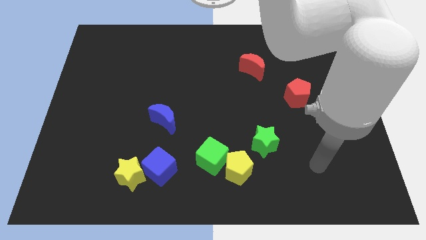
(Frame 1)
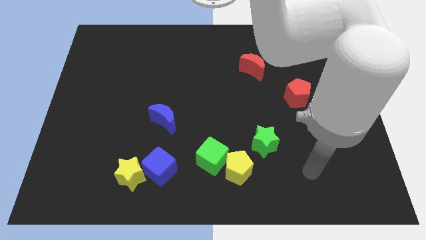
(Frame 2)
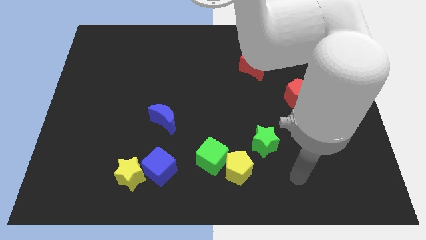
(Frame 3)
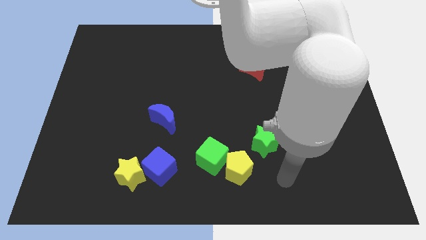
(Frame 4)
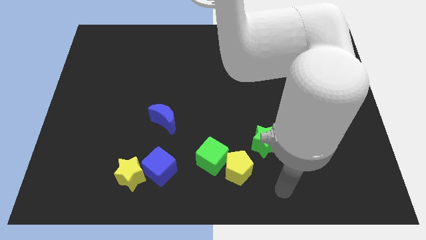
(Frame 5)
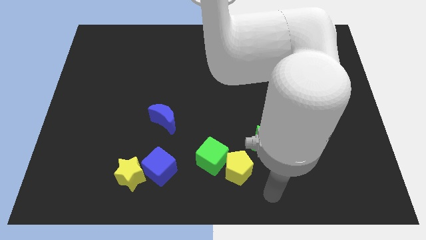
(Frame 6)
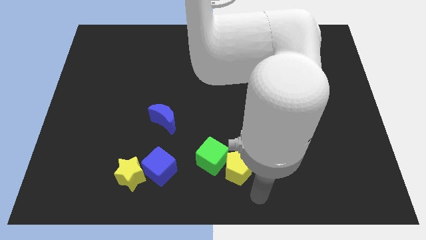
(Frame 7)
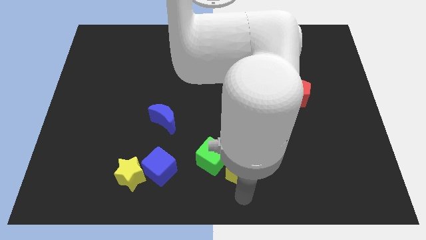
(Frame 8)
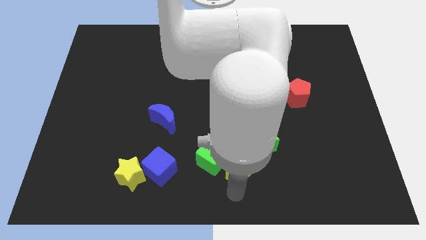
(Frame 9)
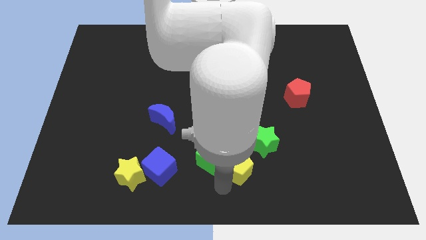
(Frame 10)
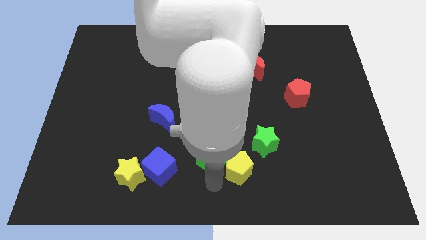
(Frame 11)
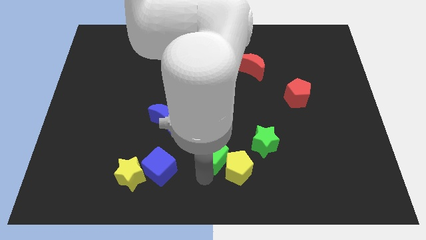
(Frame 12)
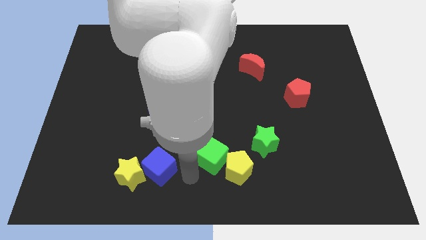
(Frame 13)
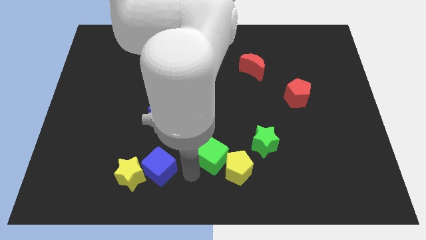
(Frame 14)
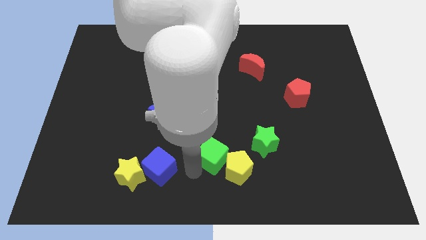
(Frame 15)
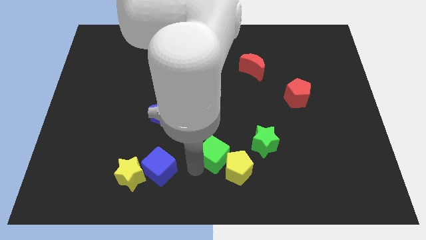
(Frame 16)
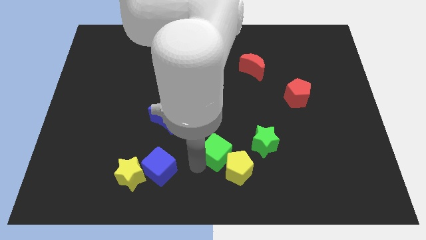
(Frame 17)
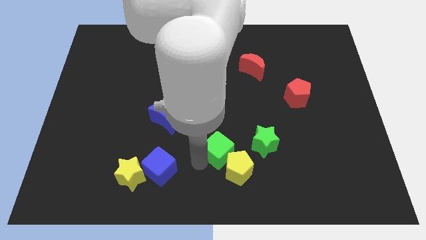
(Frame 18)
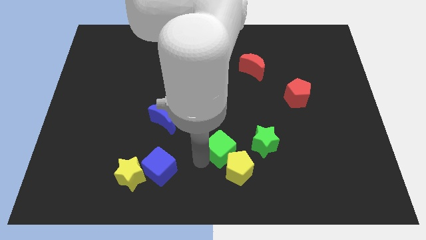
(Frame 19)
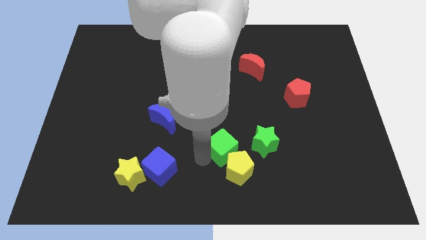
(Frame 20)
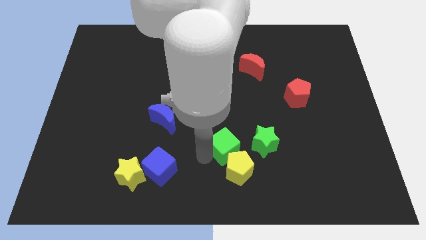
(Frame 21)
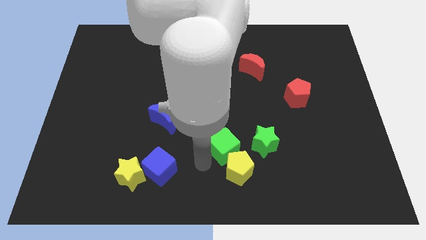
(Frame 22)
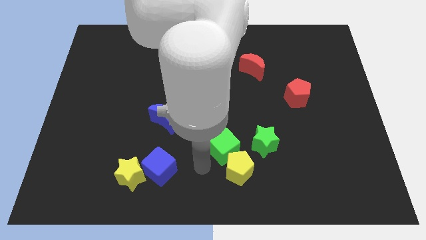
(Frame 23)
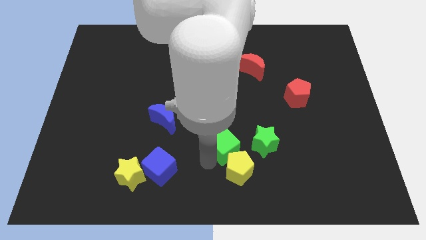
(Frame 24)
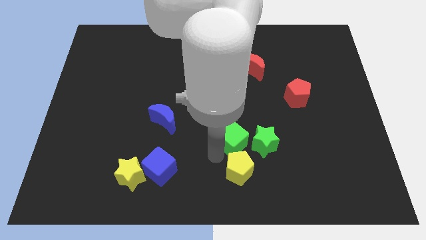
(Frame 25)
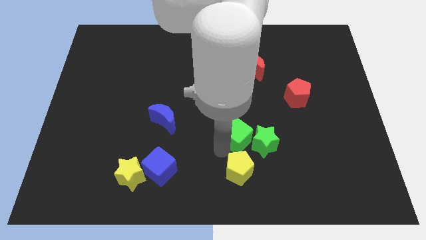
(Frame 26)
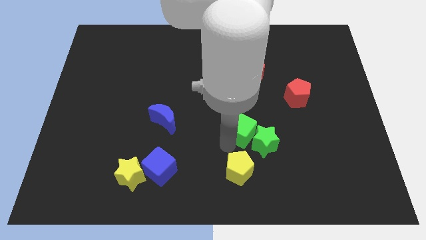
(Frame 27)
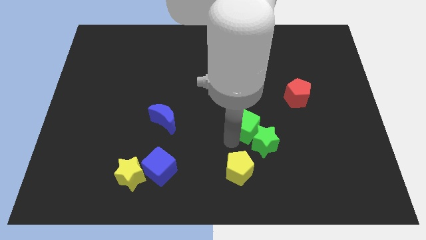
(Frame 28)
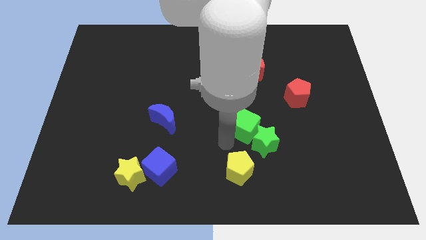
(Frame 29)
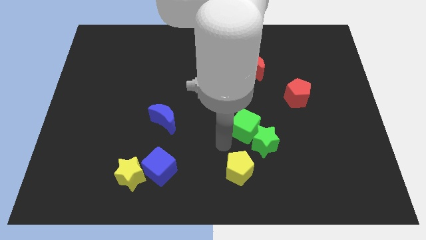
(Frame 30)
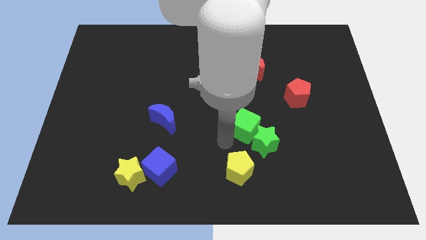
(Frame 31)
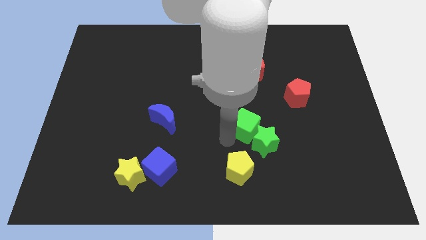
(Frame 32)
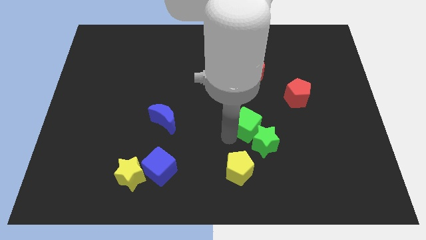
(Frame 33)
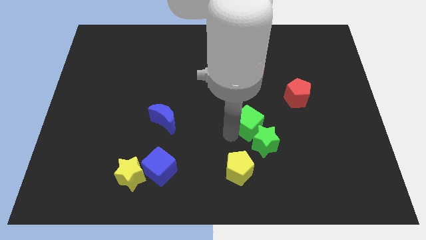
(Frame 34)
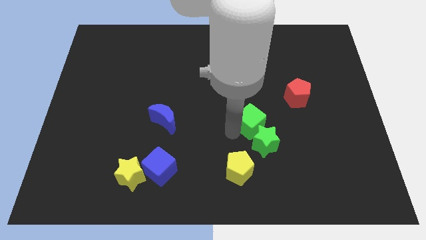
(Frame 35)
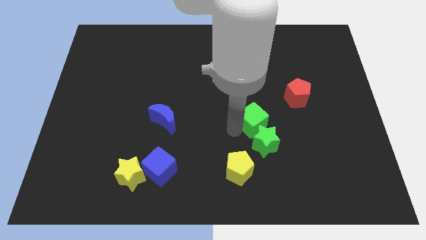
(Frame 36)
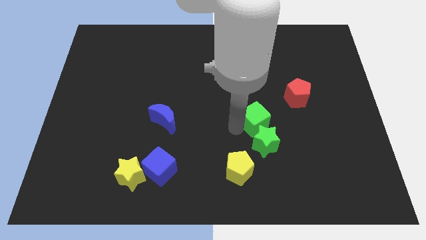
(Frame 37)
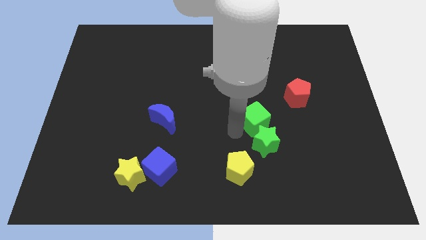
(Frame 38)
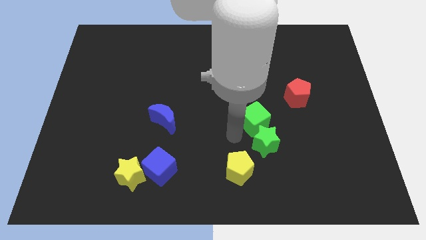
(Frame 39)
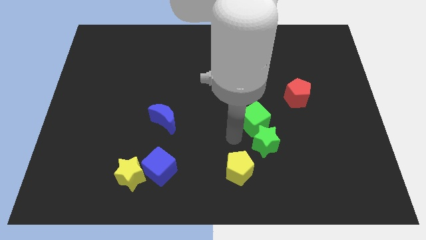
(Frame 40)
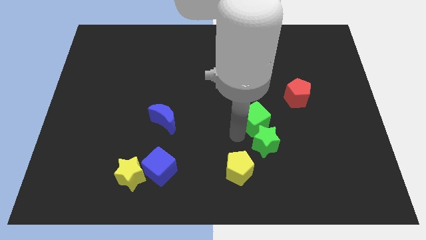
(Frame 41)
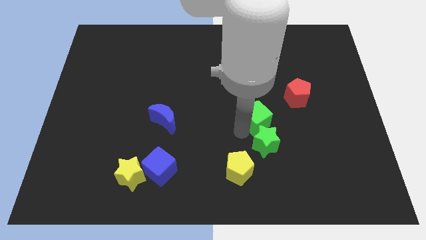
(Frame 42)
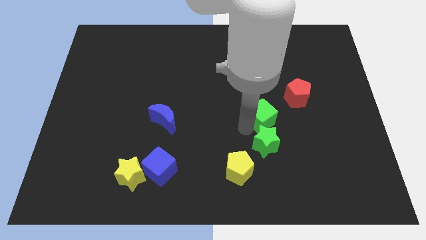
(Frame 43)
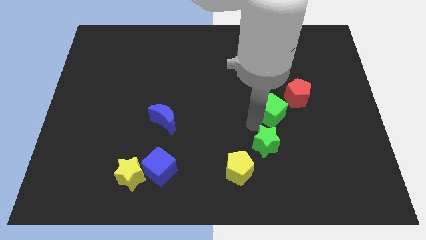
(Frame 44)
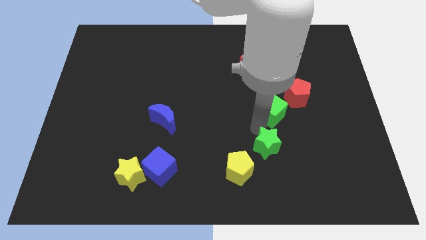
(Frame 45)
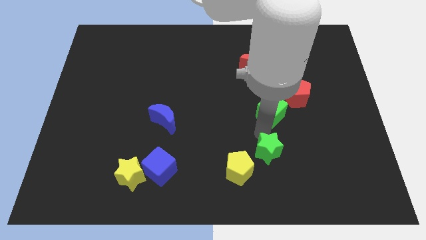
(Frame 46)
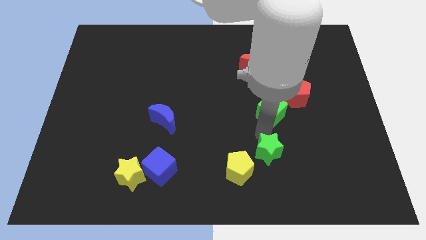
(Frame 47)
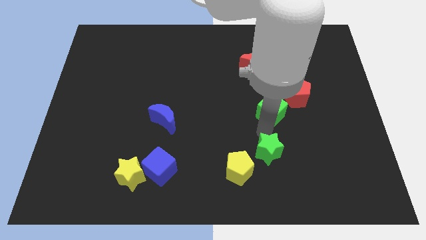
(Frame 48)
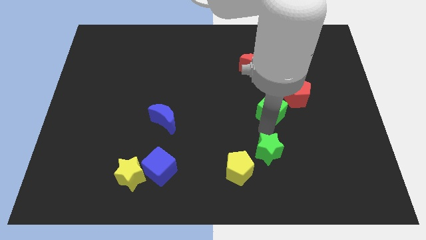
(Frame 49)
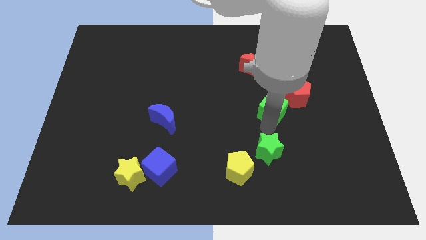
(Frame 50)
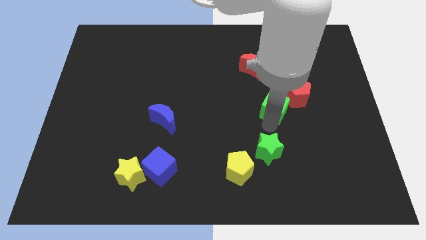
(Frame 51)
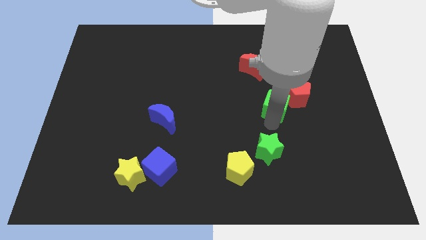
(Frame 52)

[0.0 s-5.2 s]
slide the green cube diagonally upwards and right

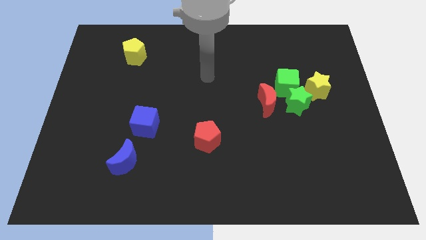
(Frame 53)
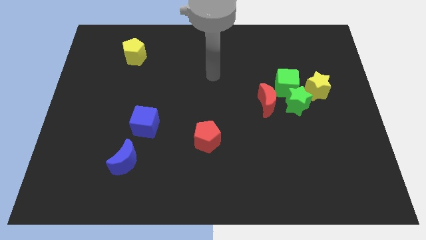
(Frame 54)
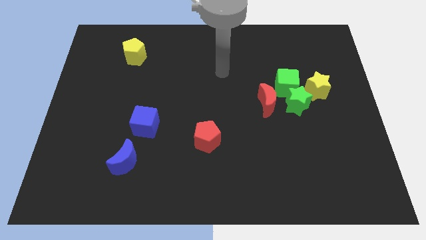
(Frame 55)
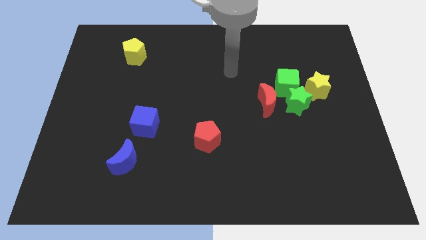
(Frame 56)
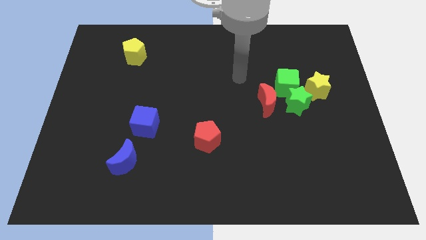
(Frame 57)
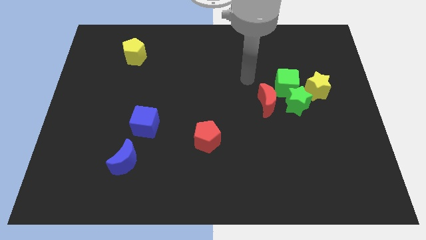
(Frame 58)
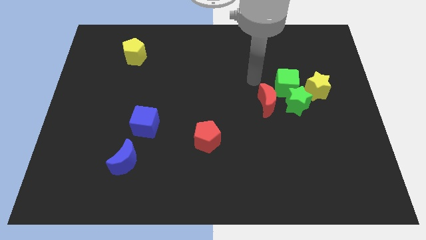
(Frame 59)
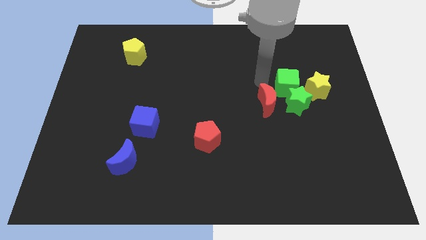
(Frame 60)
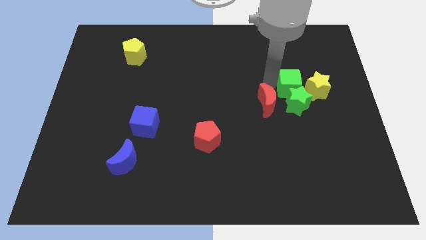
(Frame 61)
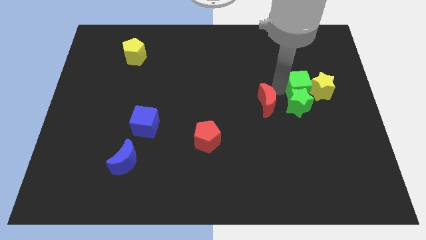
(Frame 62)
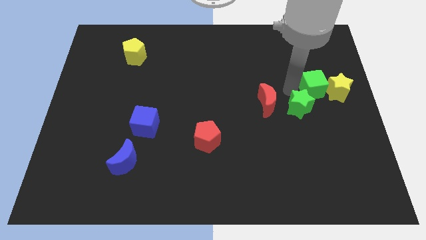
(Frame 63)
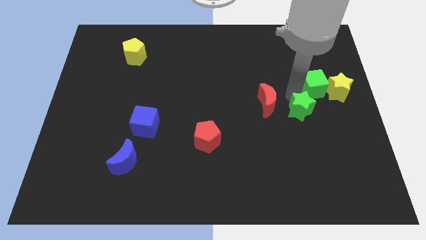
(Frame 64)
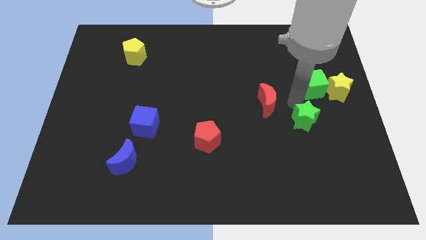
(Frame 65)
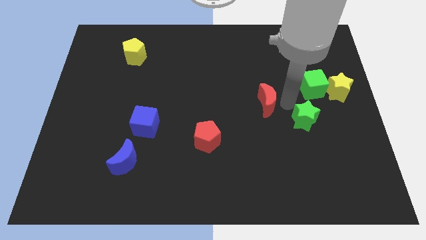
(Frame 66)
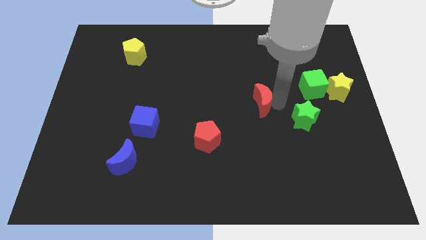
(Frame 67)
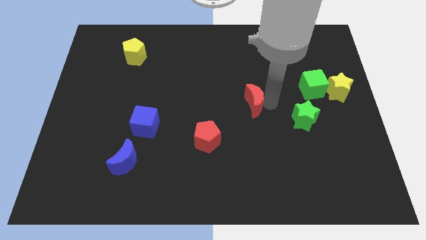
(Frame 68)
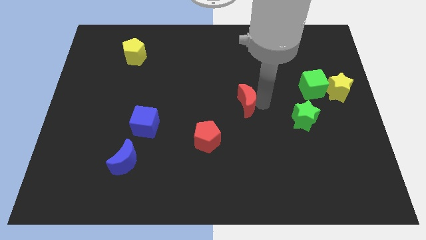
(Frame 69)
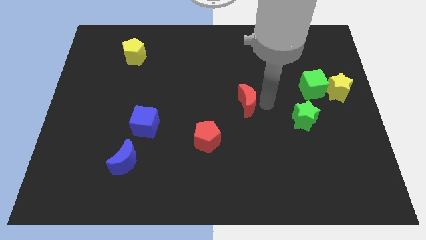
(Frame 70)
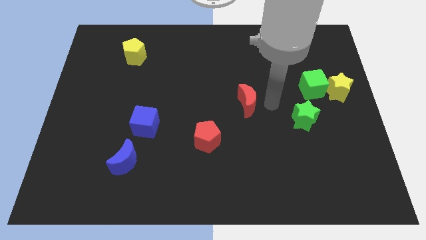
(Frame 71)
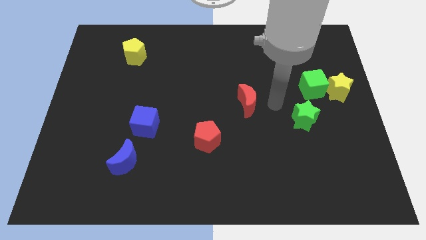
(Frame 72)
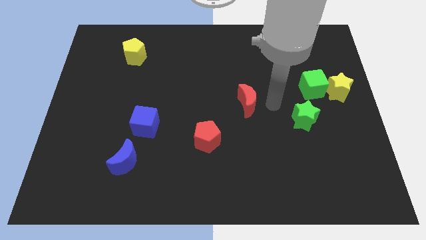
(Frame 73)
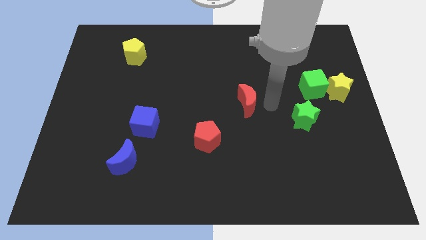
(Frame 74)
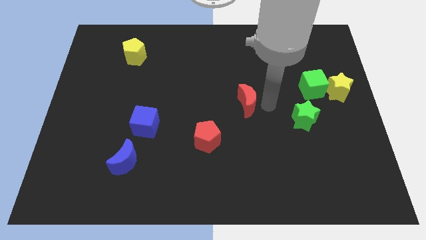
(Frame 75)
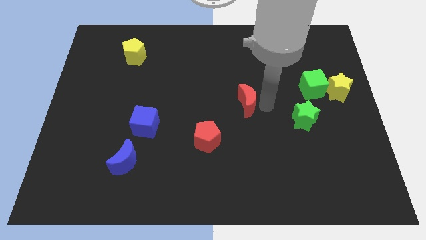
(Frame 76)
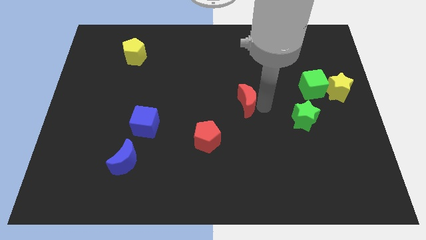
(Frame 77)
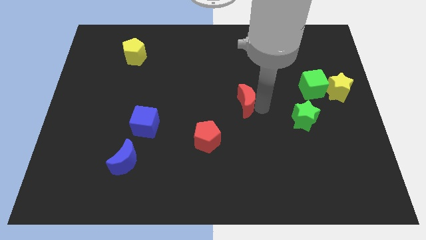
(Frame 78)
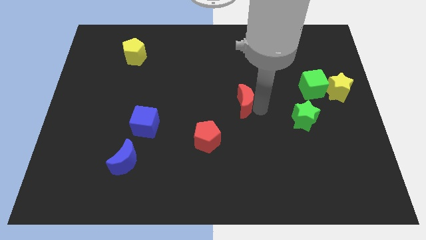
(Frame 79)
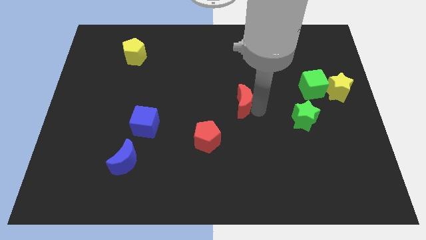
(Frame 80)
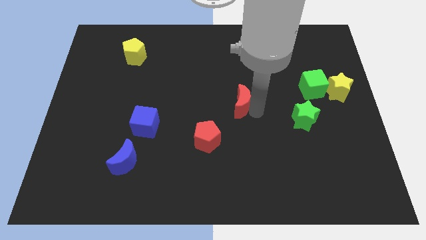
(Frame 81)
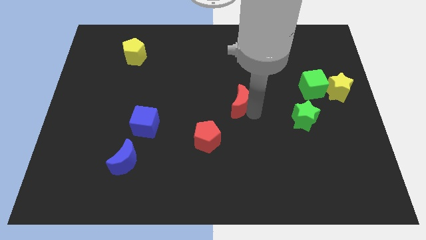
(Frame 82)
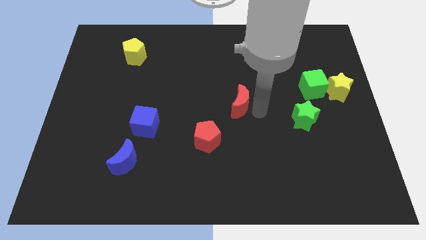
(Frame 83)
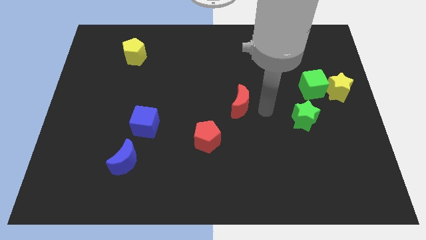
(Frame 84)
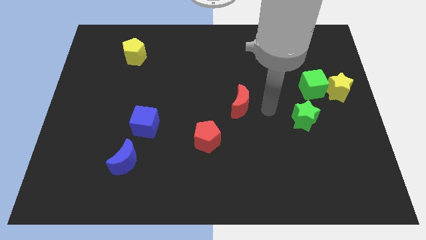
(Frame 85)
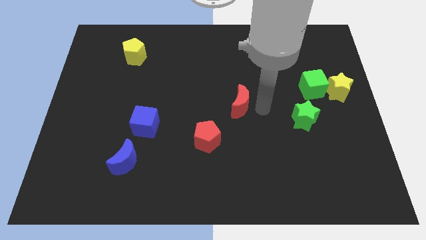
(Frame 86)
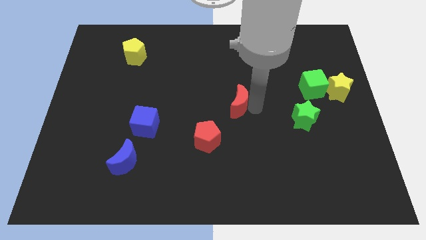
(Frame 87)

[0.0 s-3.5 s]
move the red moon a little to the left
